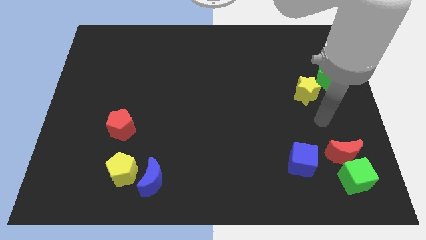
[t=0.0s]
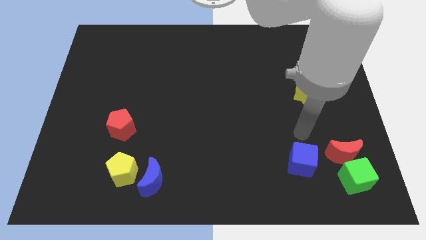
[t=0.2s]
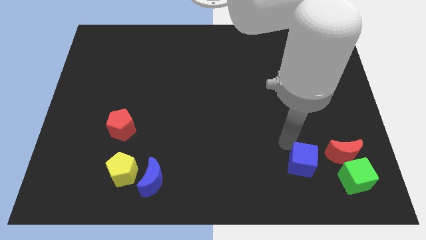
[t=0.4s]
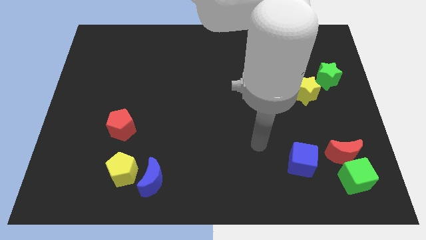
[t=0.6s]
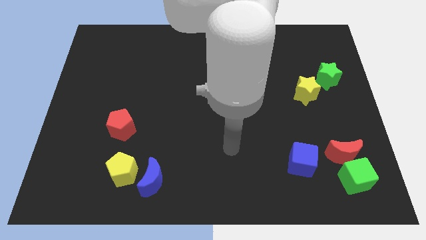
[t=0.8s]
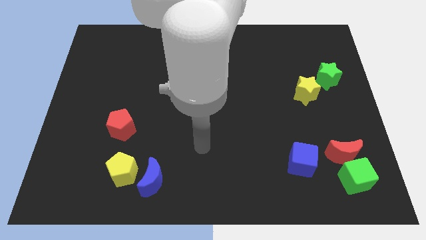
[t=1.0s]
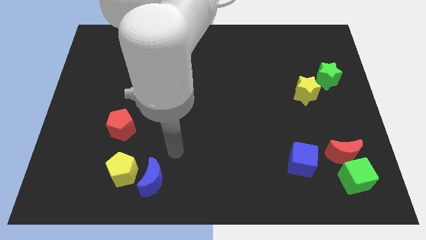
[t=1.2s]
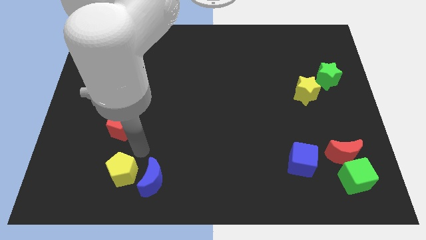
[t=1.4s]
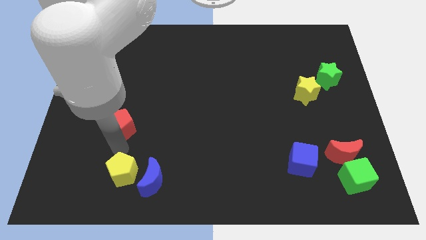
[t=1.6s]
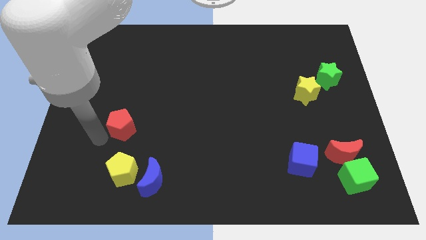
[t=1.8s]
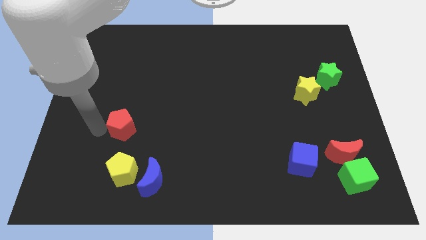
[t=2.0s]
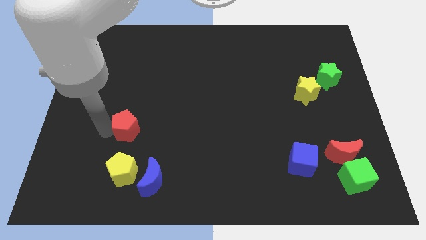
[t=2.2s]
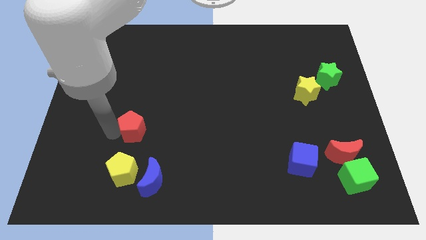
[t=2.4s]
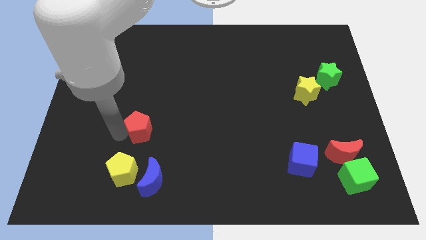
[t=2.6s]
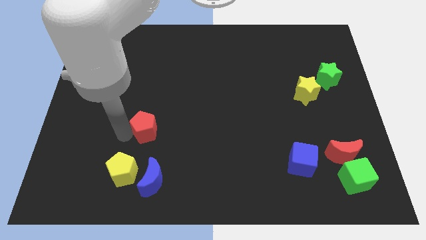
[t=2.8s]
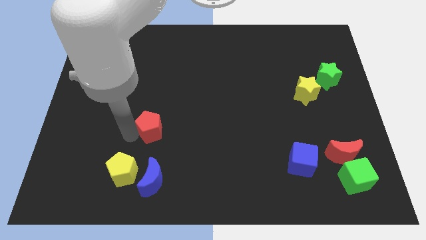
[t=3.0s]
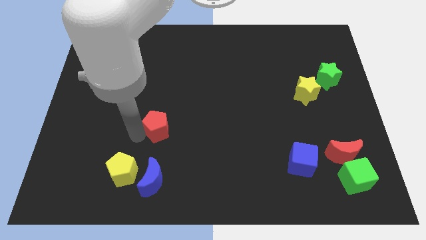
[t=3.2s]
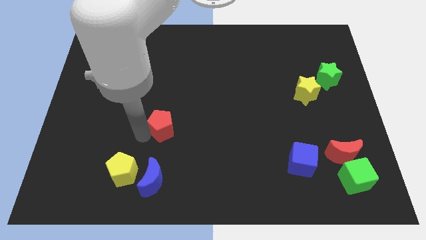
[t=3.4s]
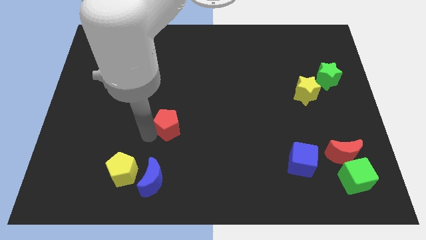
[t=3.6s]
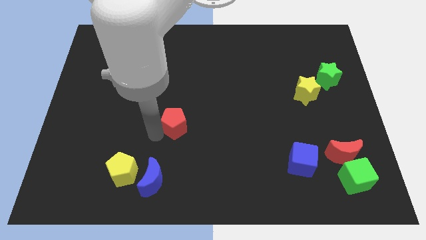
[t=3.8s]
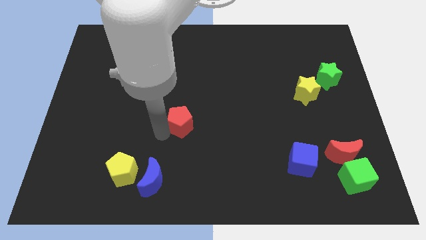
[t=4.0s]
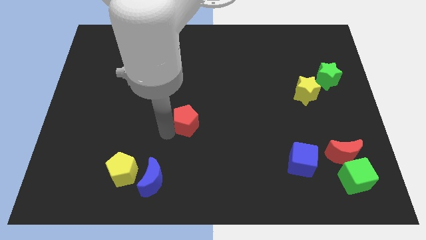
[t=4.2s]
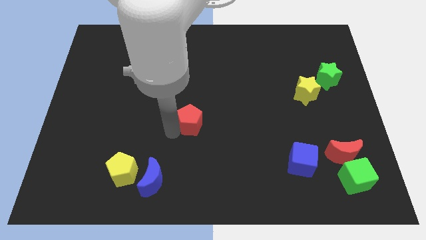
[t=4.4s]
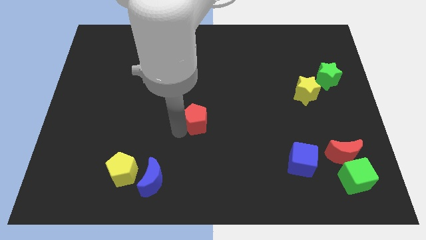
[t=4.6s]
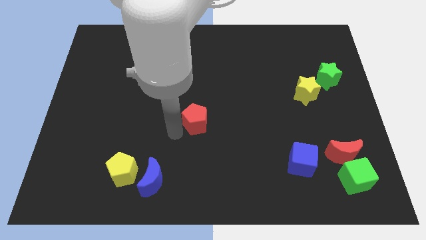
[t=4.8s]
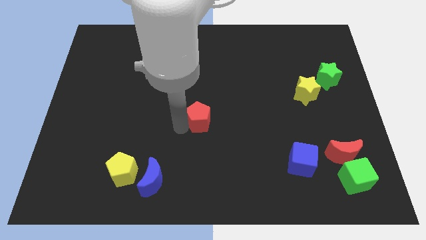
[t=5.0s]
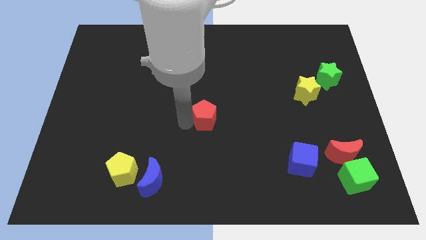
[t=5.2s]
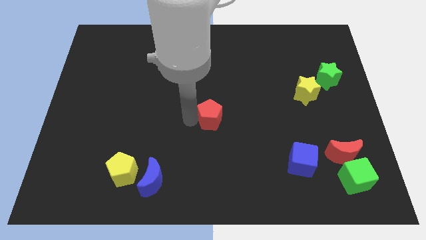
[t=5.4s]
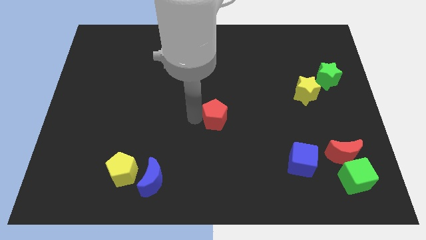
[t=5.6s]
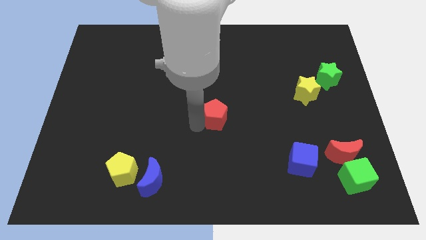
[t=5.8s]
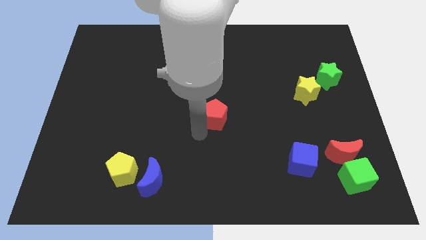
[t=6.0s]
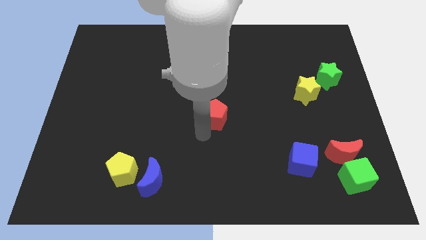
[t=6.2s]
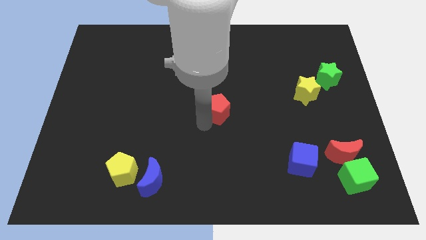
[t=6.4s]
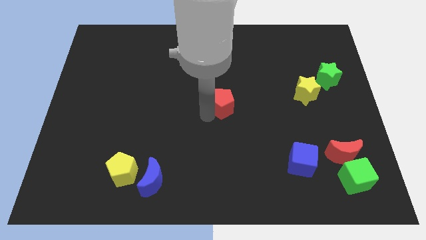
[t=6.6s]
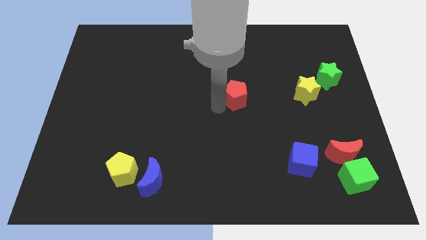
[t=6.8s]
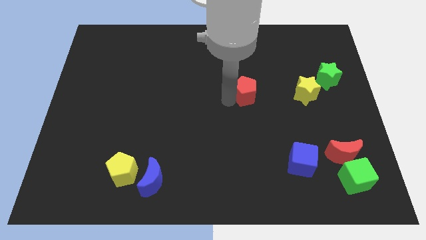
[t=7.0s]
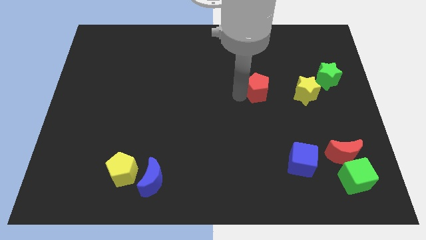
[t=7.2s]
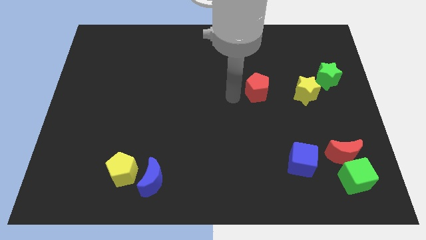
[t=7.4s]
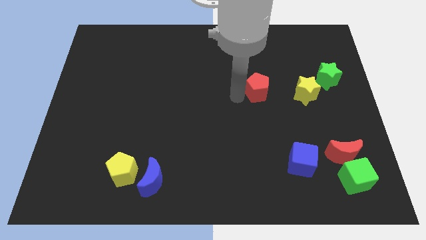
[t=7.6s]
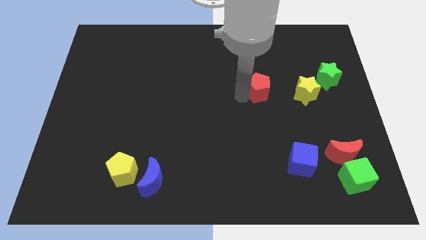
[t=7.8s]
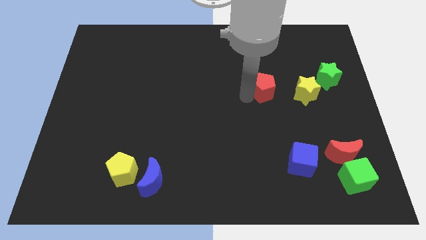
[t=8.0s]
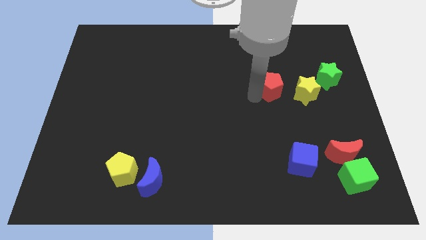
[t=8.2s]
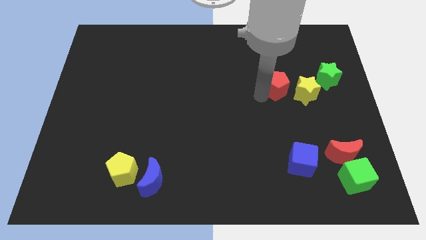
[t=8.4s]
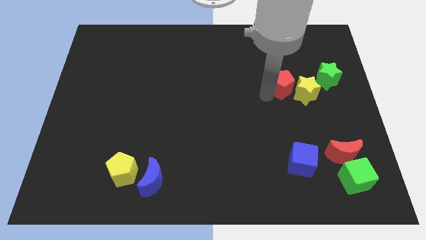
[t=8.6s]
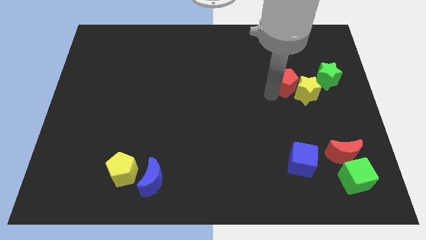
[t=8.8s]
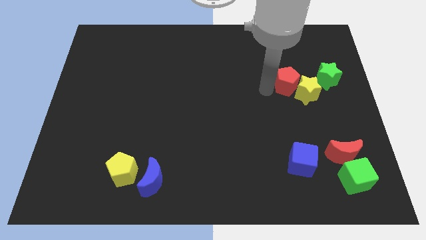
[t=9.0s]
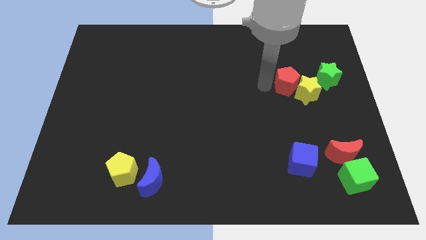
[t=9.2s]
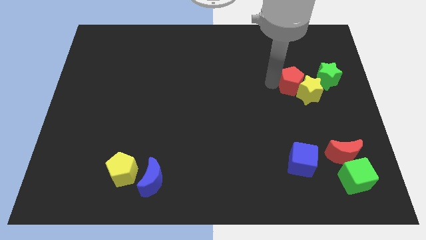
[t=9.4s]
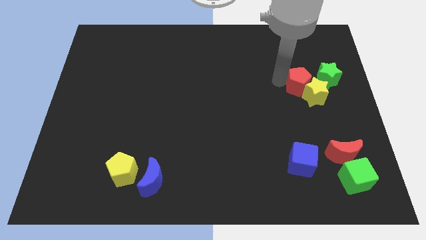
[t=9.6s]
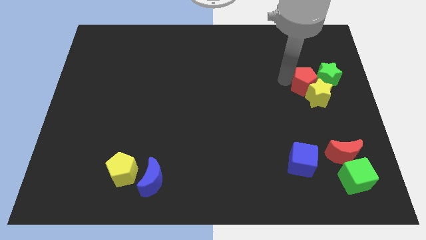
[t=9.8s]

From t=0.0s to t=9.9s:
slide the red pentagon to the green star

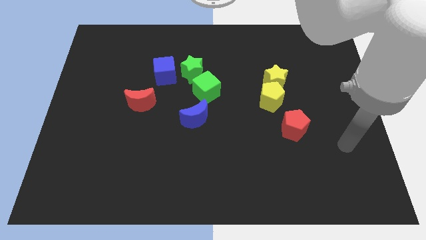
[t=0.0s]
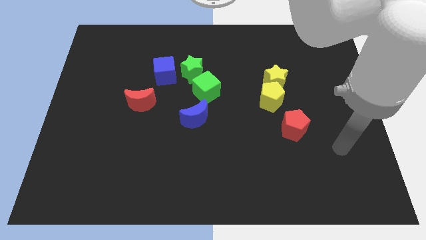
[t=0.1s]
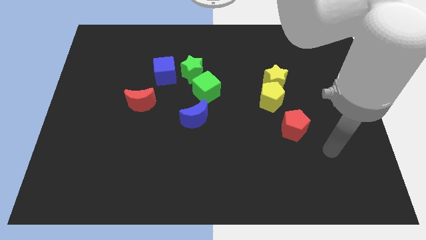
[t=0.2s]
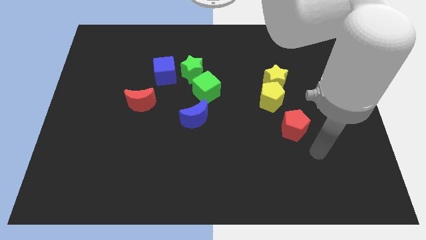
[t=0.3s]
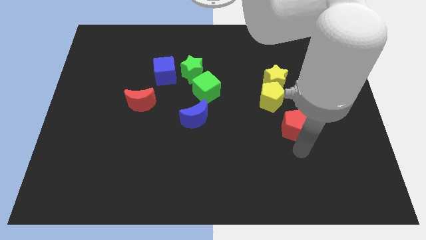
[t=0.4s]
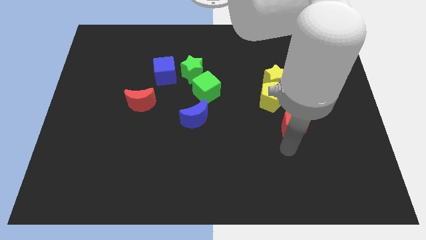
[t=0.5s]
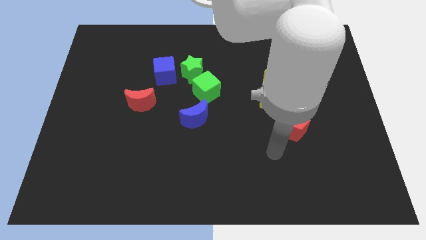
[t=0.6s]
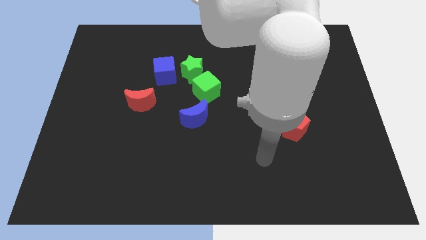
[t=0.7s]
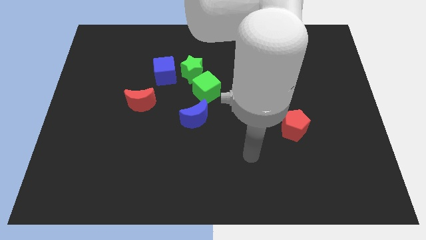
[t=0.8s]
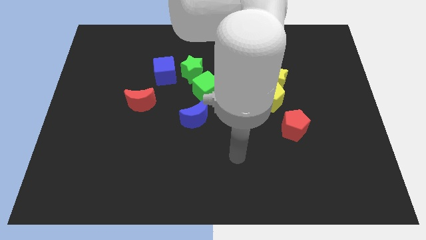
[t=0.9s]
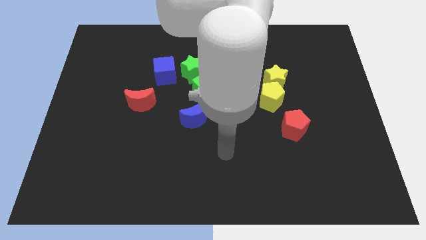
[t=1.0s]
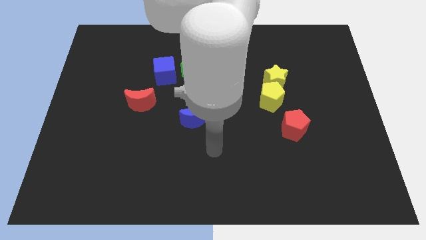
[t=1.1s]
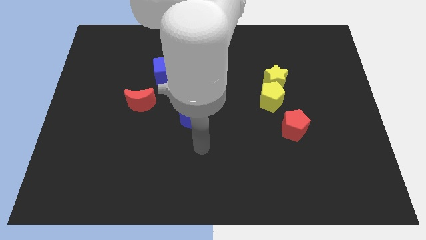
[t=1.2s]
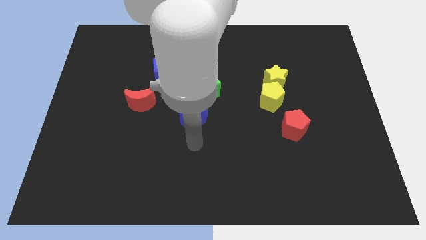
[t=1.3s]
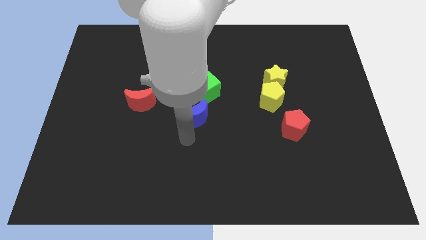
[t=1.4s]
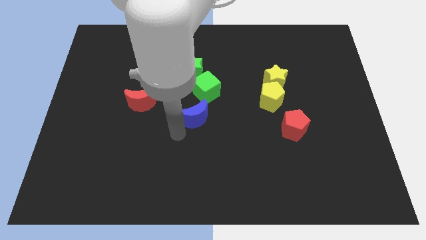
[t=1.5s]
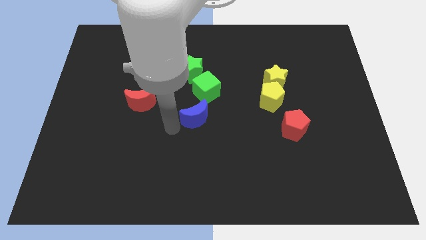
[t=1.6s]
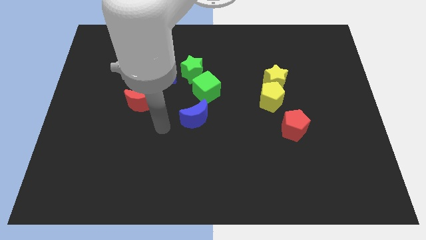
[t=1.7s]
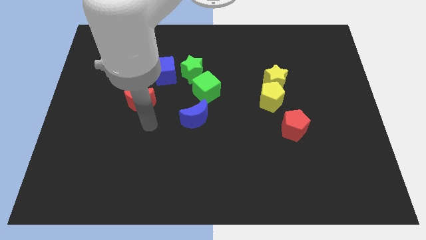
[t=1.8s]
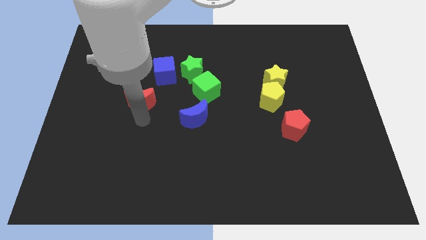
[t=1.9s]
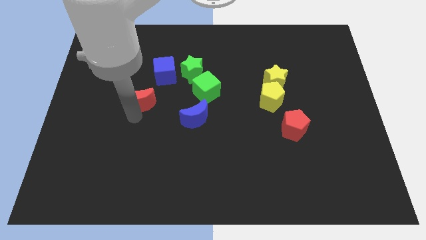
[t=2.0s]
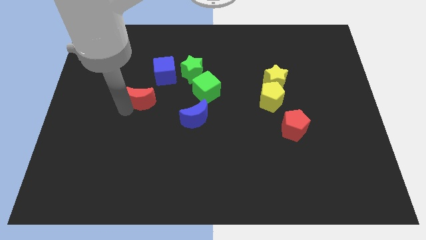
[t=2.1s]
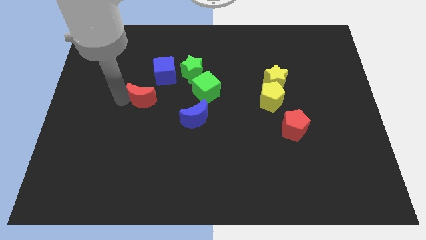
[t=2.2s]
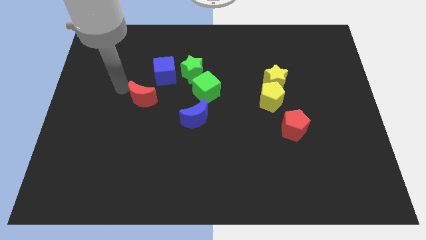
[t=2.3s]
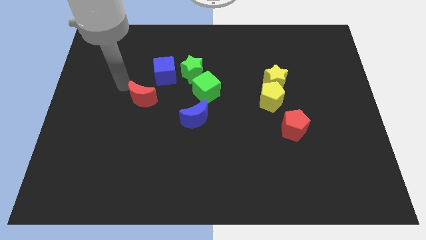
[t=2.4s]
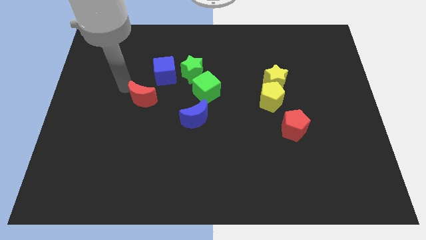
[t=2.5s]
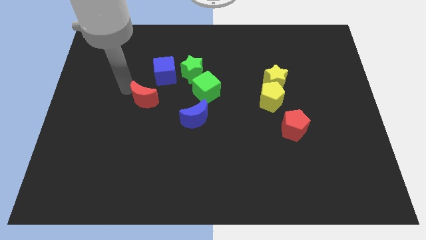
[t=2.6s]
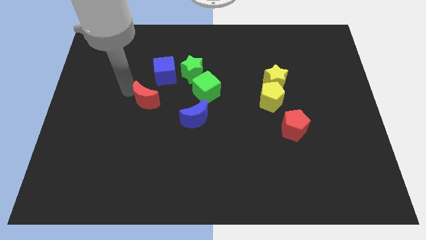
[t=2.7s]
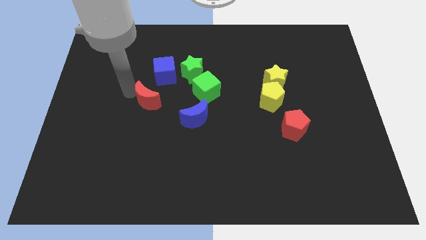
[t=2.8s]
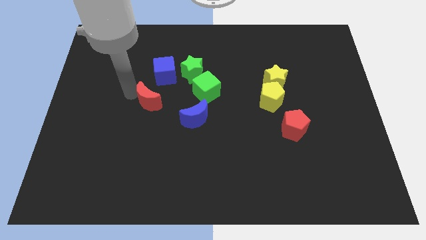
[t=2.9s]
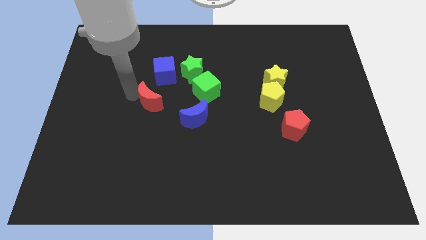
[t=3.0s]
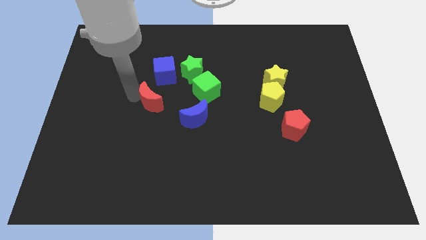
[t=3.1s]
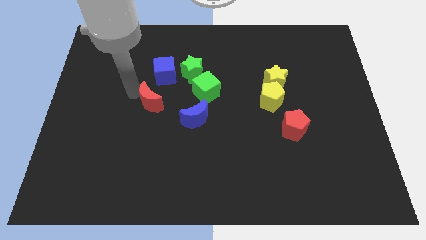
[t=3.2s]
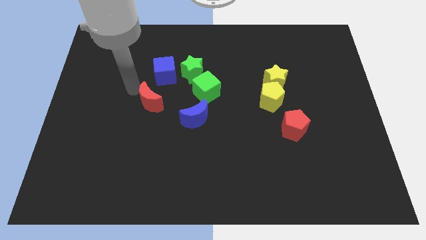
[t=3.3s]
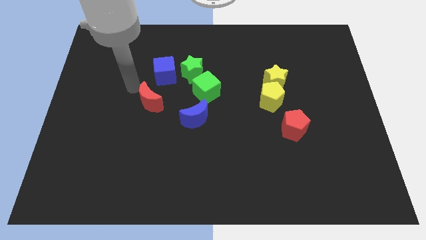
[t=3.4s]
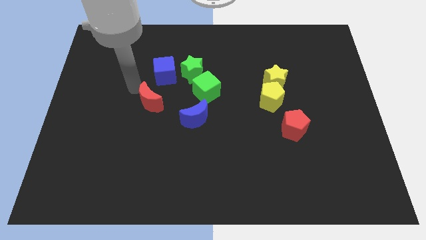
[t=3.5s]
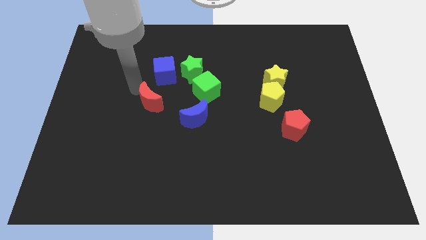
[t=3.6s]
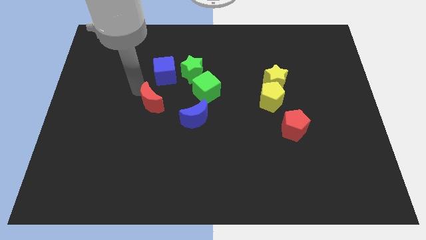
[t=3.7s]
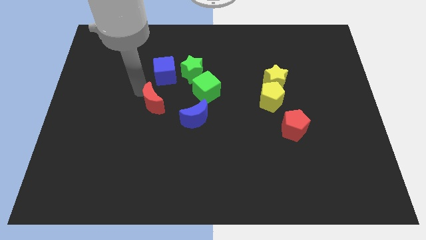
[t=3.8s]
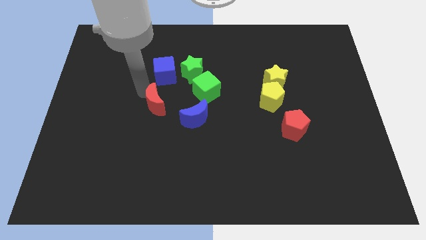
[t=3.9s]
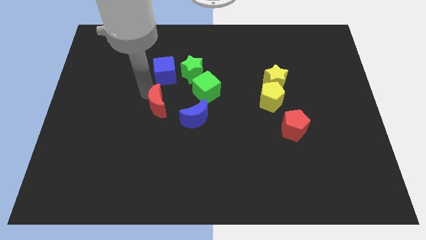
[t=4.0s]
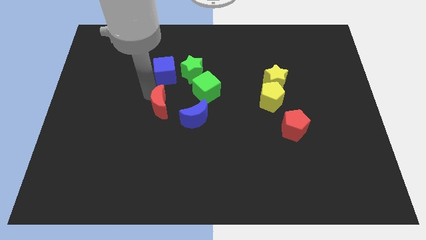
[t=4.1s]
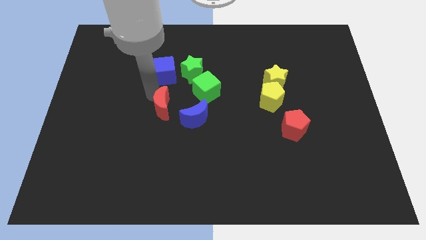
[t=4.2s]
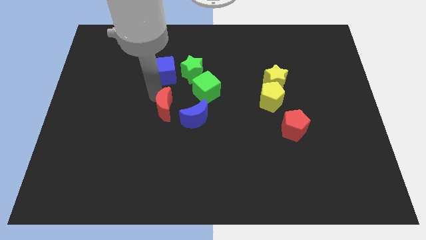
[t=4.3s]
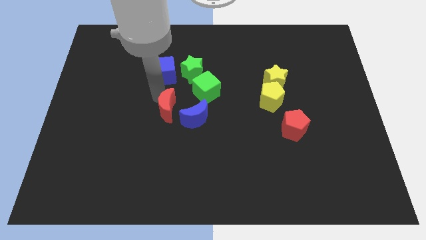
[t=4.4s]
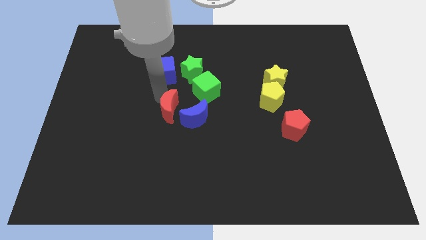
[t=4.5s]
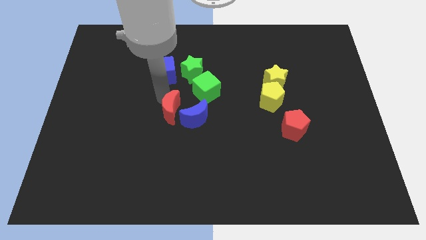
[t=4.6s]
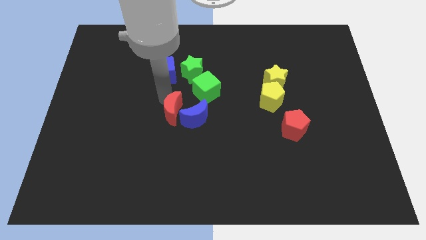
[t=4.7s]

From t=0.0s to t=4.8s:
push the red moon next to the blue moon
